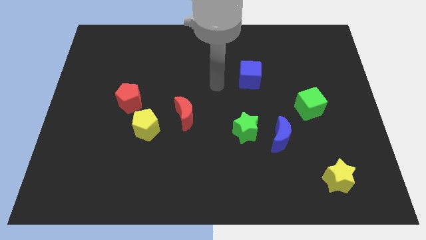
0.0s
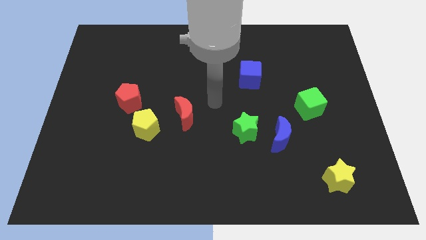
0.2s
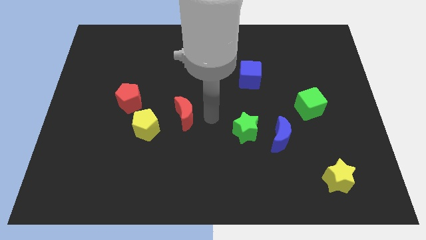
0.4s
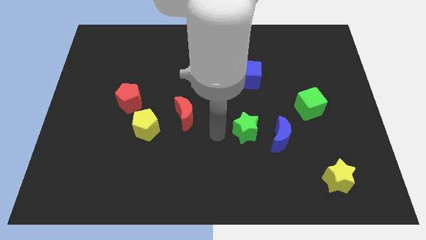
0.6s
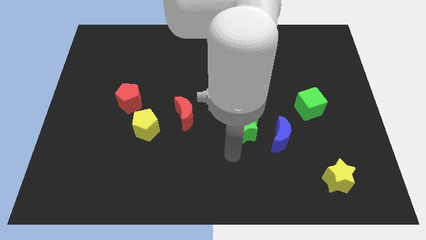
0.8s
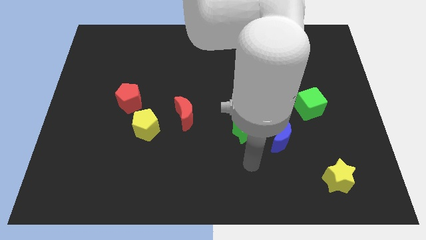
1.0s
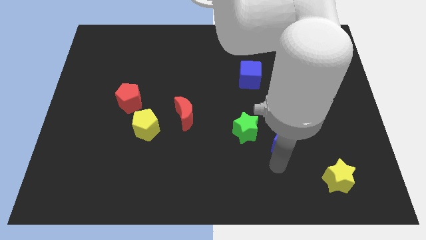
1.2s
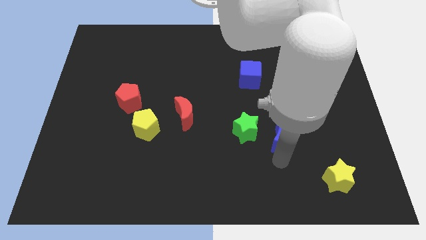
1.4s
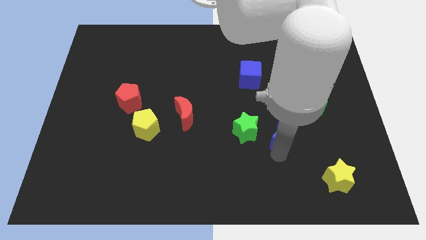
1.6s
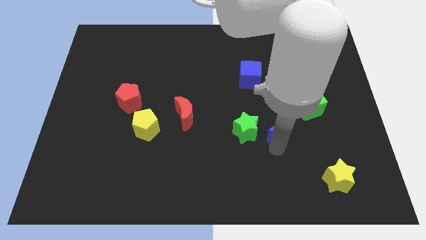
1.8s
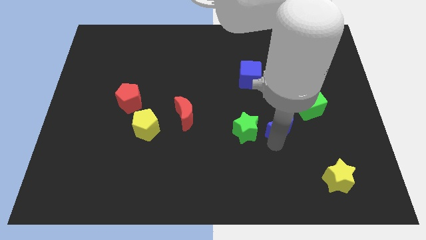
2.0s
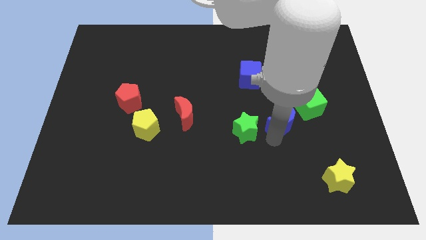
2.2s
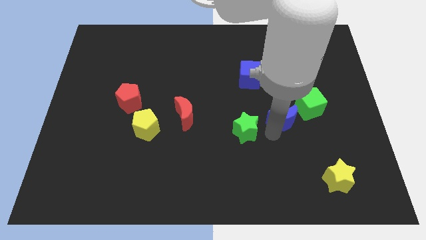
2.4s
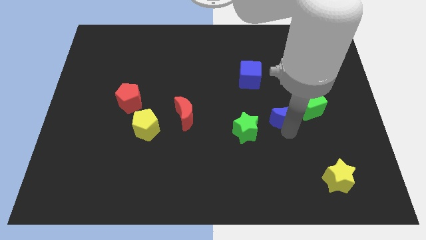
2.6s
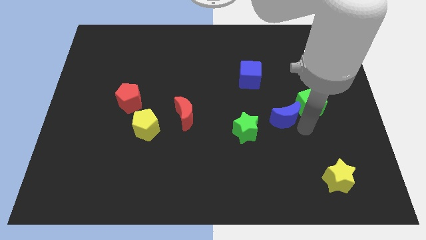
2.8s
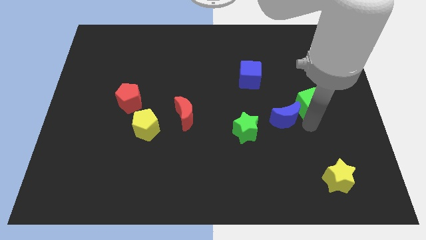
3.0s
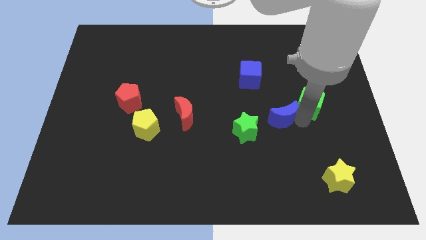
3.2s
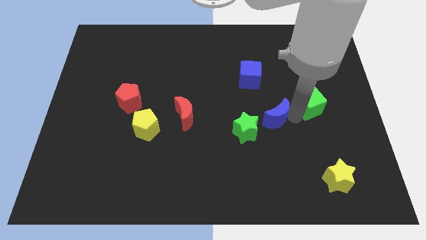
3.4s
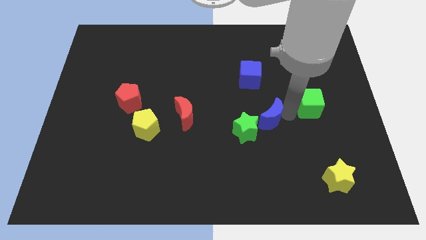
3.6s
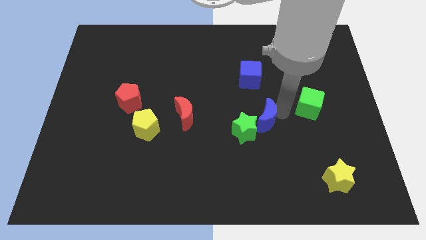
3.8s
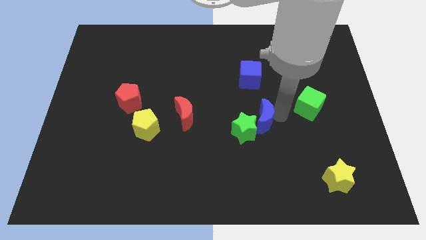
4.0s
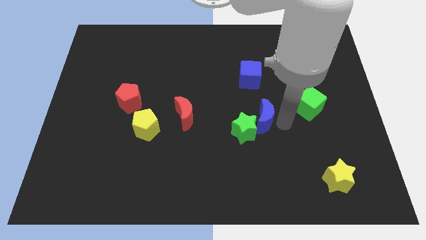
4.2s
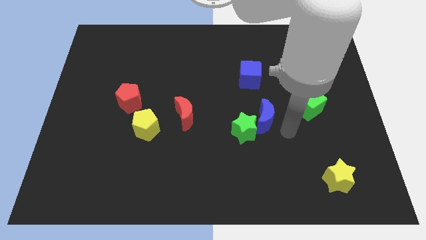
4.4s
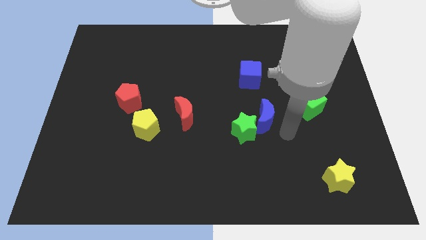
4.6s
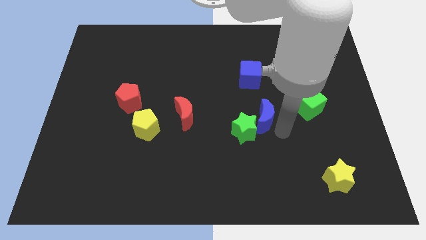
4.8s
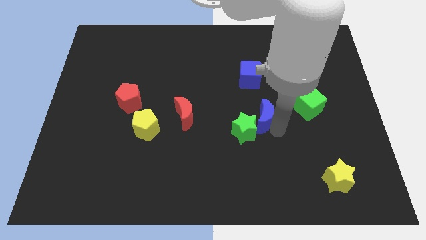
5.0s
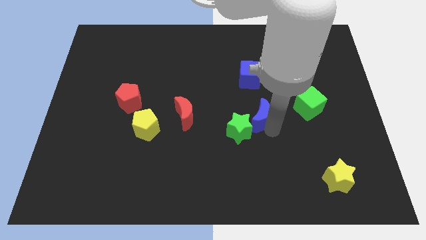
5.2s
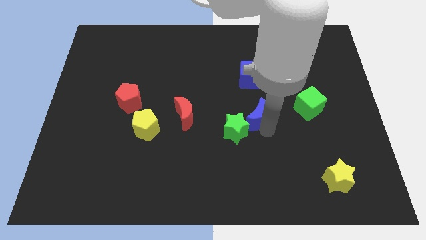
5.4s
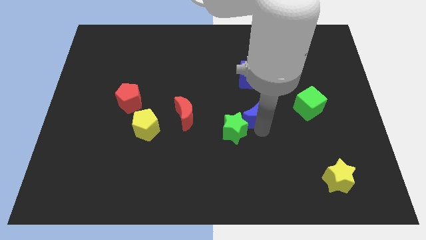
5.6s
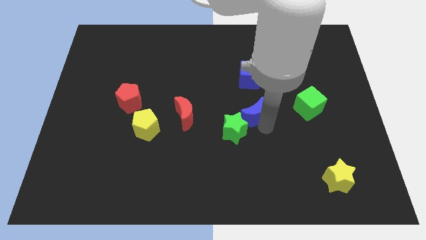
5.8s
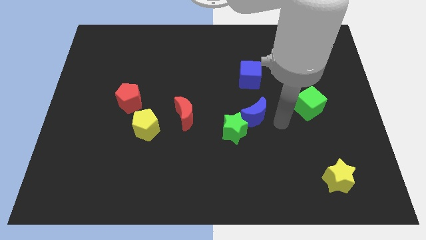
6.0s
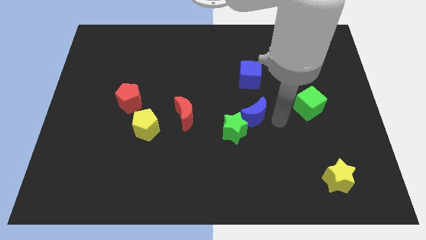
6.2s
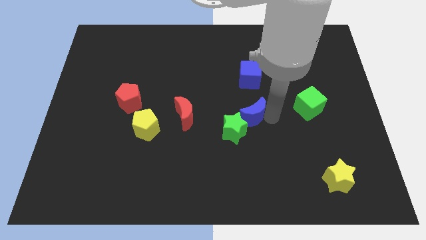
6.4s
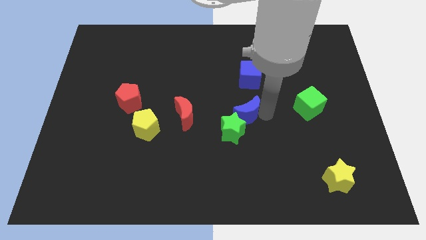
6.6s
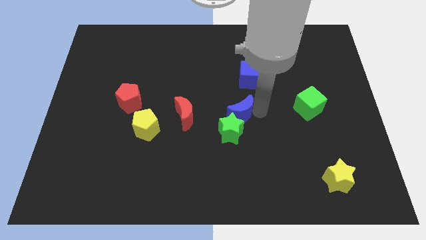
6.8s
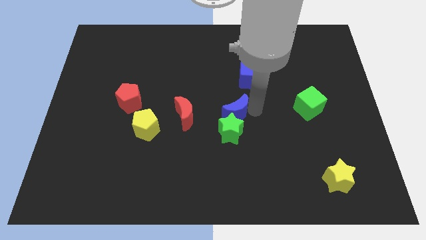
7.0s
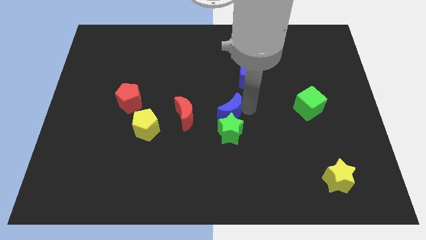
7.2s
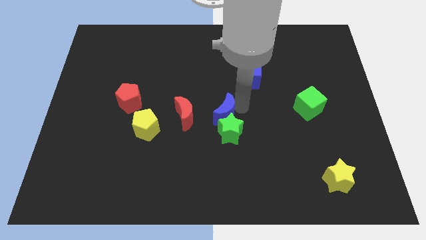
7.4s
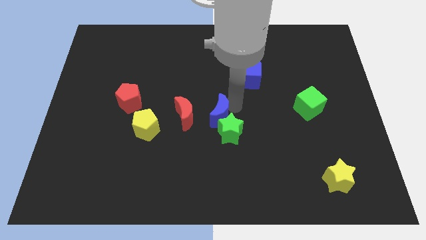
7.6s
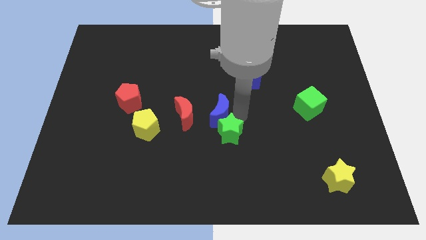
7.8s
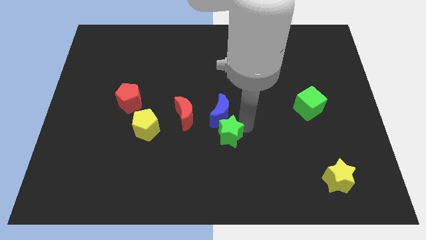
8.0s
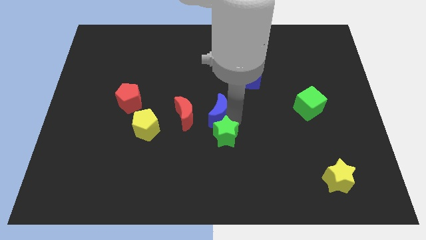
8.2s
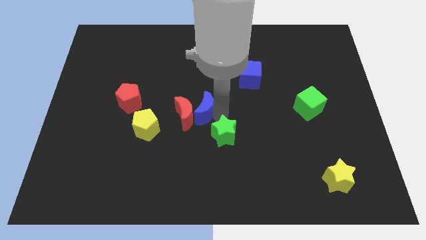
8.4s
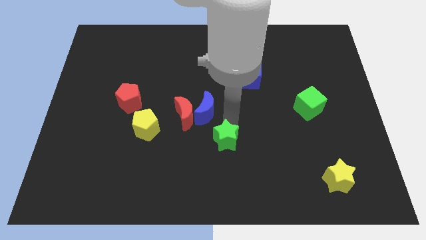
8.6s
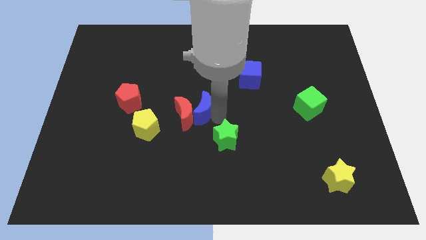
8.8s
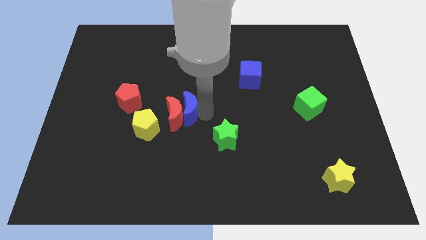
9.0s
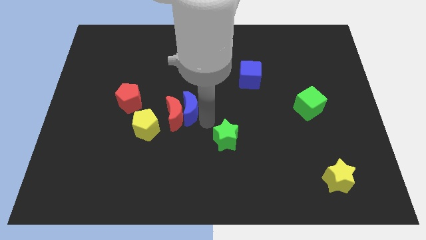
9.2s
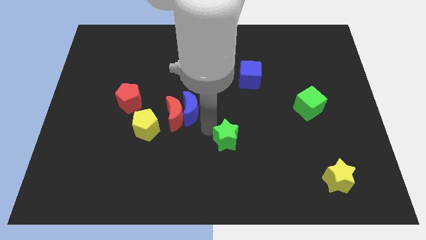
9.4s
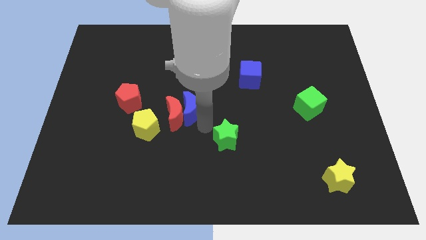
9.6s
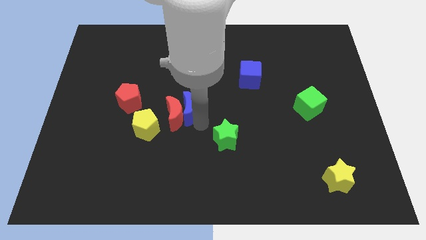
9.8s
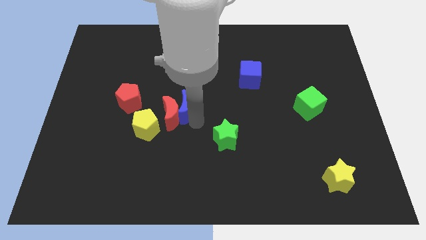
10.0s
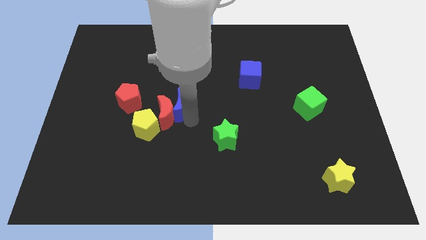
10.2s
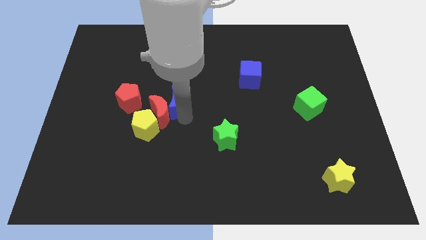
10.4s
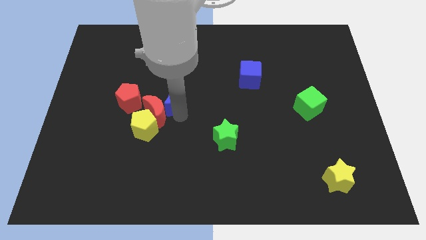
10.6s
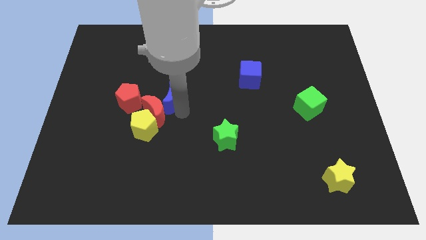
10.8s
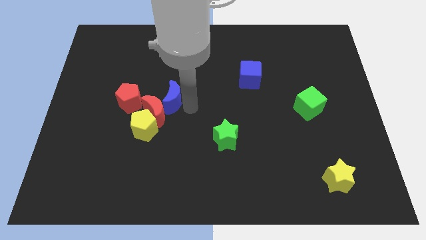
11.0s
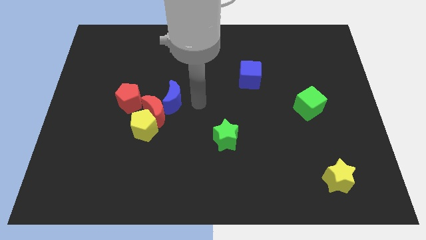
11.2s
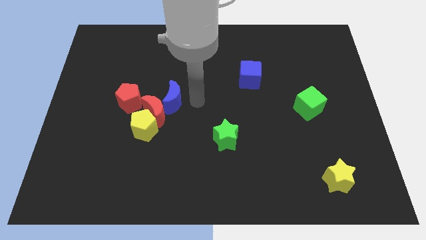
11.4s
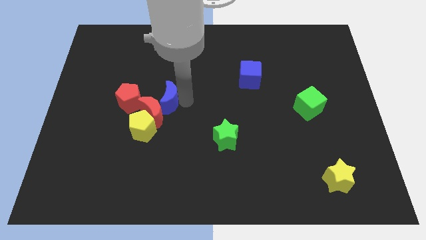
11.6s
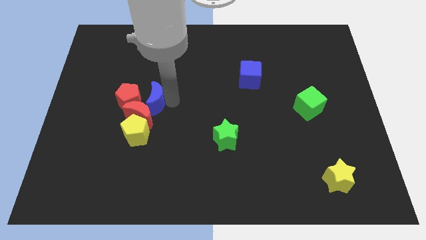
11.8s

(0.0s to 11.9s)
slide the blue moon close to the red pentagon

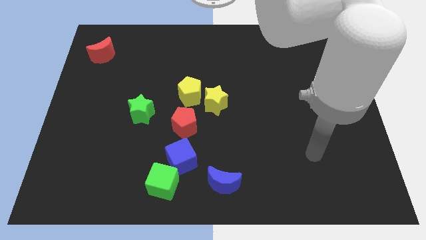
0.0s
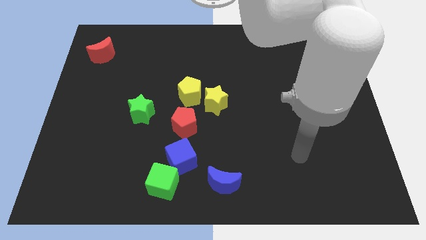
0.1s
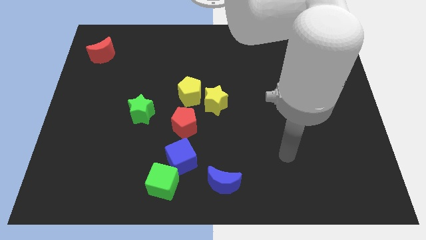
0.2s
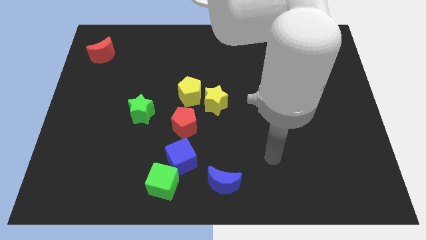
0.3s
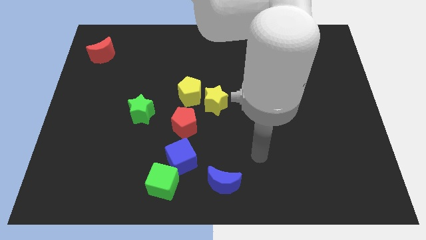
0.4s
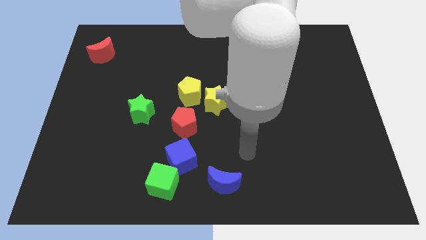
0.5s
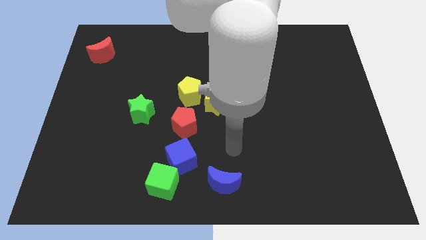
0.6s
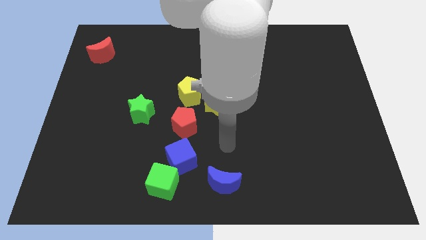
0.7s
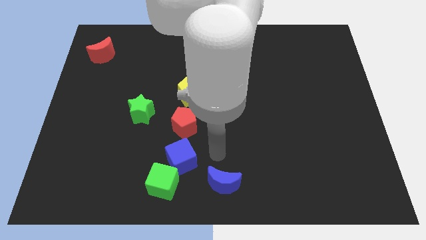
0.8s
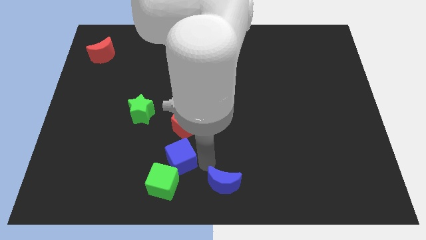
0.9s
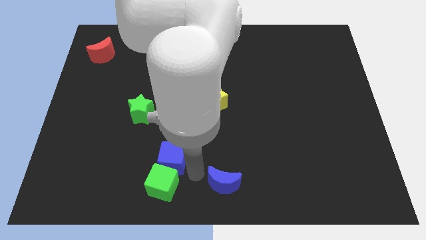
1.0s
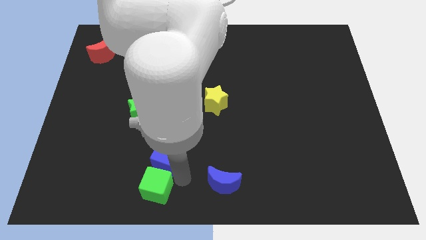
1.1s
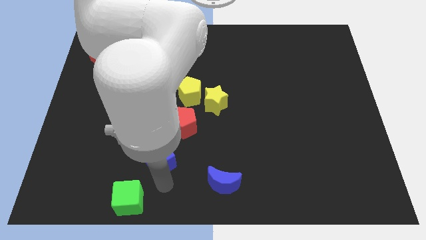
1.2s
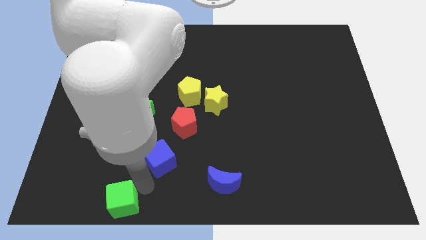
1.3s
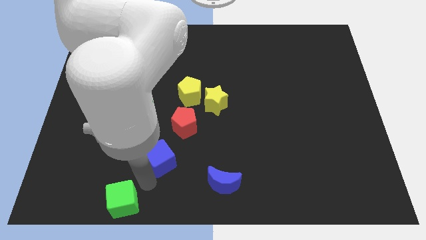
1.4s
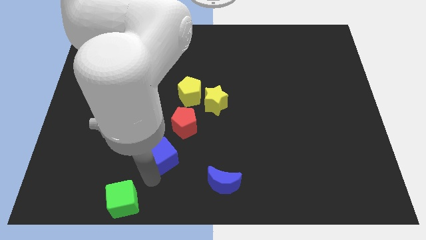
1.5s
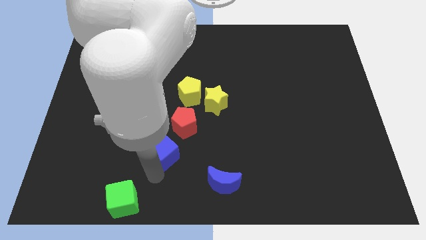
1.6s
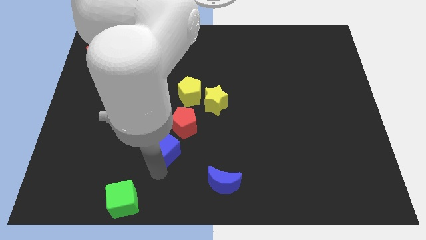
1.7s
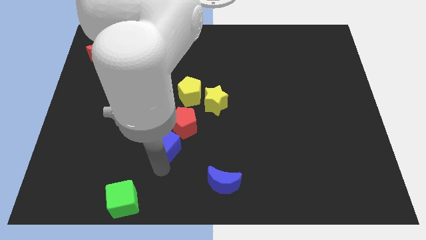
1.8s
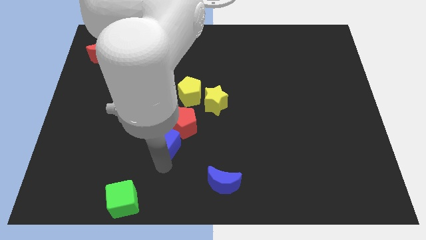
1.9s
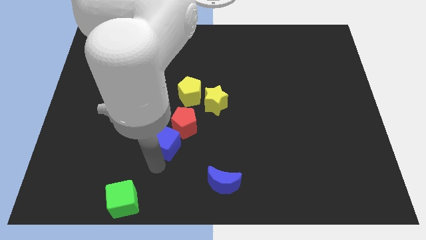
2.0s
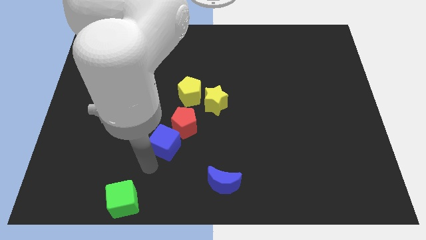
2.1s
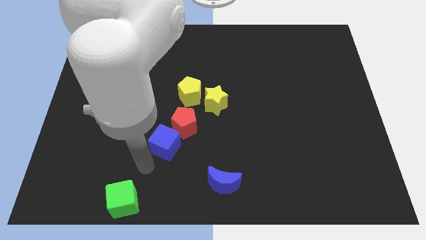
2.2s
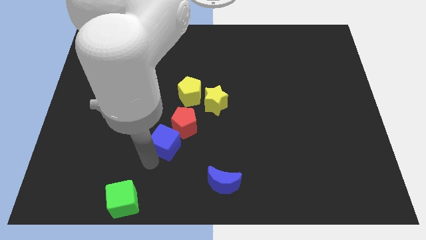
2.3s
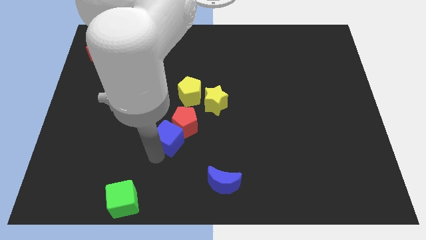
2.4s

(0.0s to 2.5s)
put the blue cube to the red pentagon
